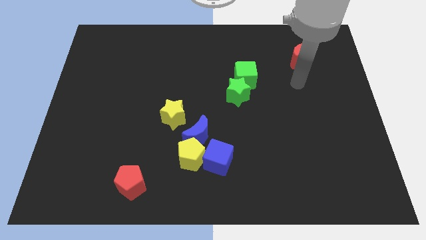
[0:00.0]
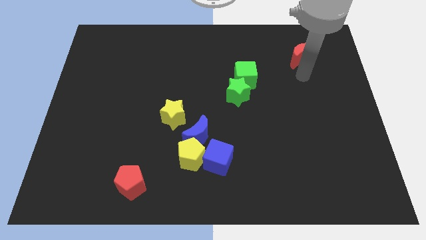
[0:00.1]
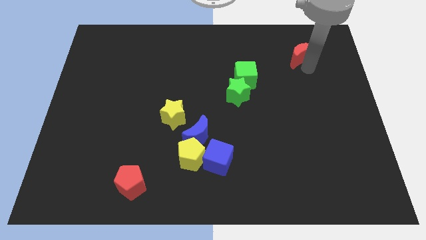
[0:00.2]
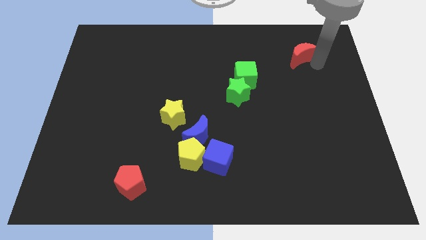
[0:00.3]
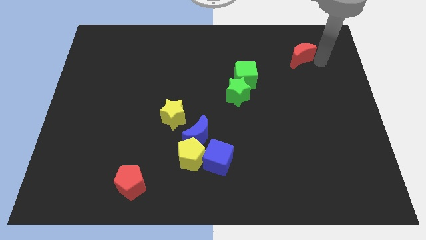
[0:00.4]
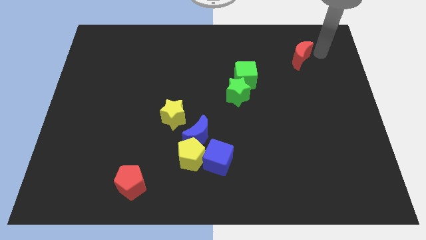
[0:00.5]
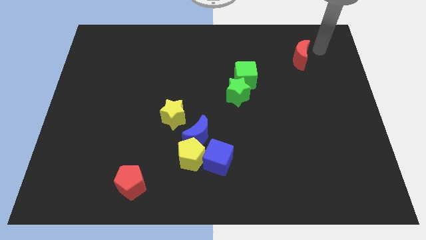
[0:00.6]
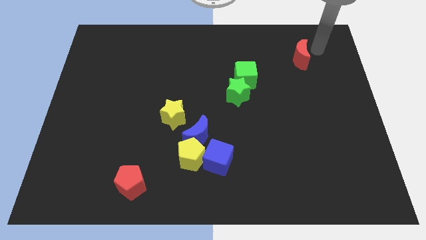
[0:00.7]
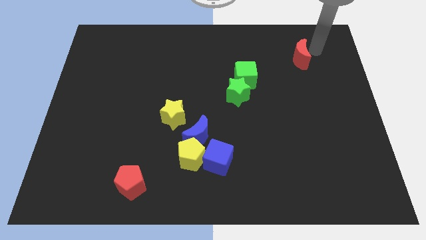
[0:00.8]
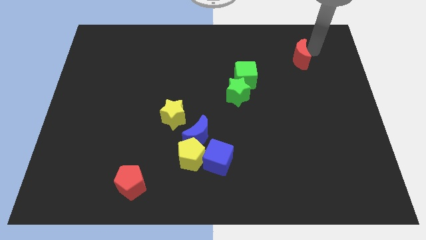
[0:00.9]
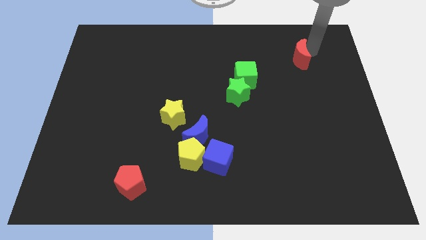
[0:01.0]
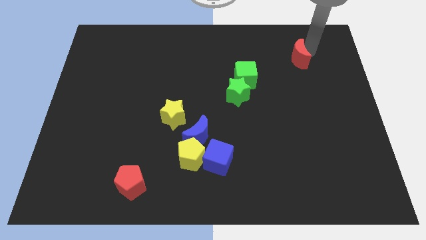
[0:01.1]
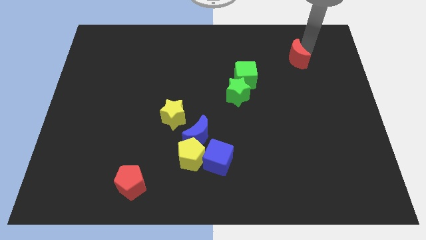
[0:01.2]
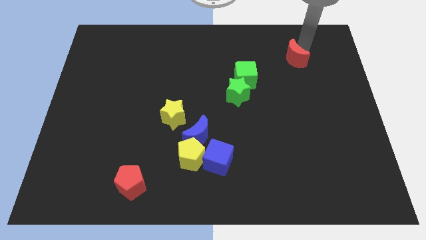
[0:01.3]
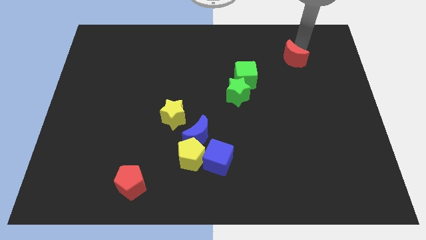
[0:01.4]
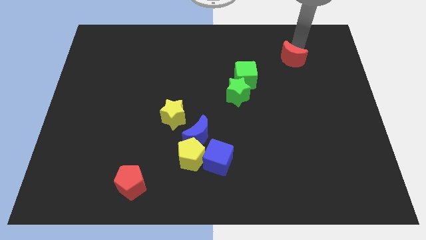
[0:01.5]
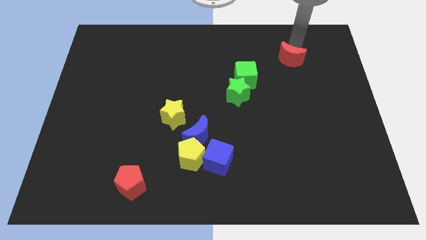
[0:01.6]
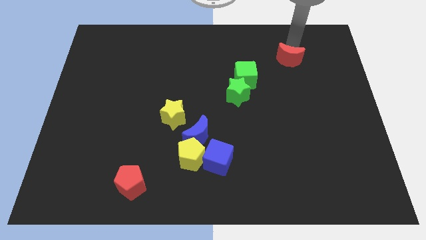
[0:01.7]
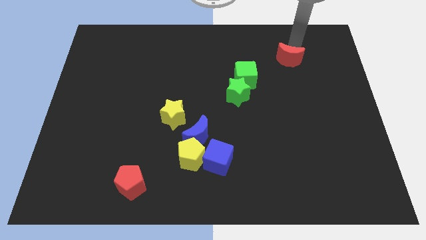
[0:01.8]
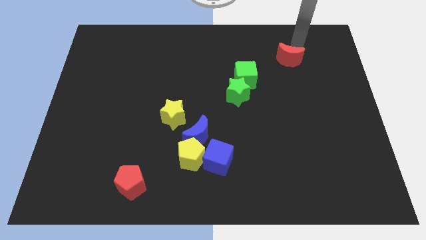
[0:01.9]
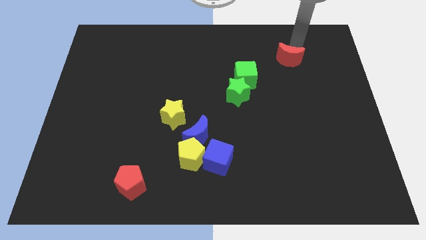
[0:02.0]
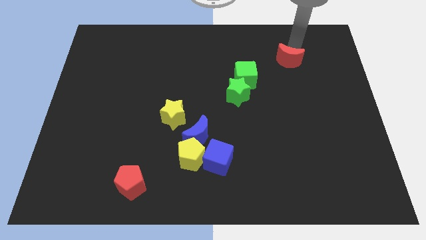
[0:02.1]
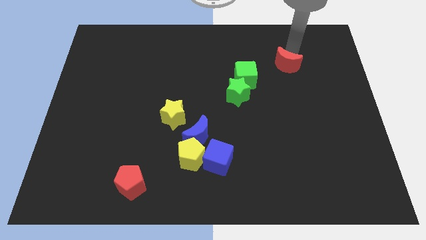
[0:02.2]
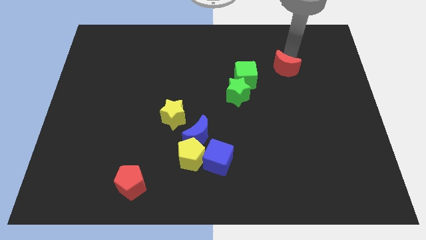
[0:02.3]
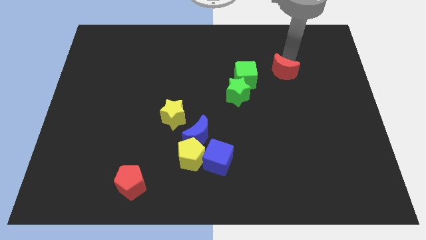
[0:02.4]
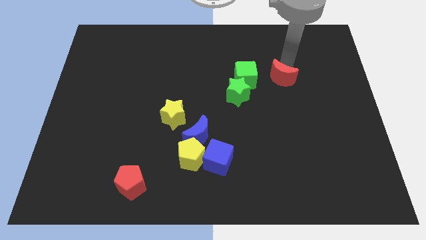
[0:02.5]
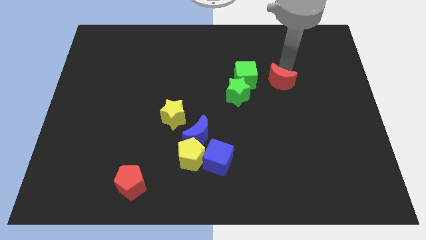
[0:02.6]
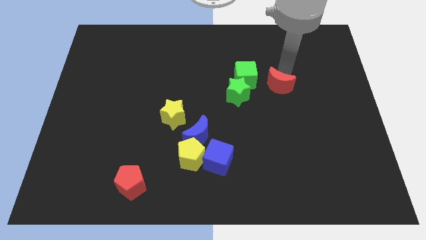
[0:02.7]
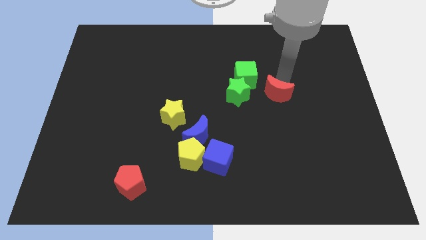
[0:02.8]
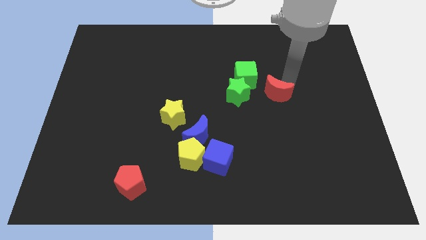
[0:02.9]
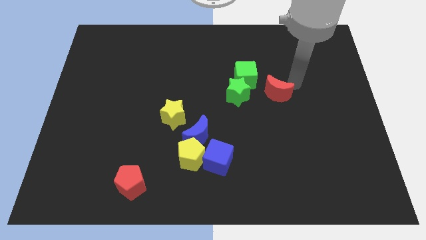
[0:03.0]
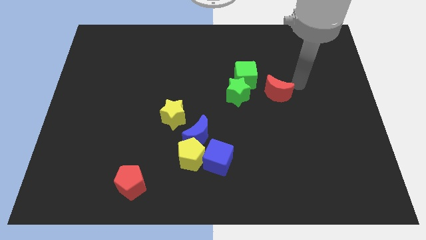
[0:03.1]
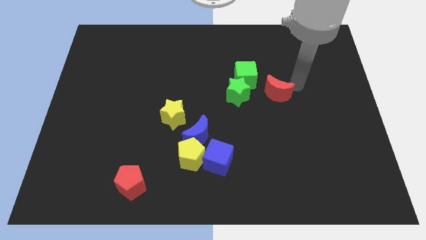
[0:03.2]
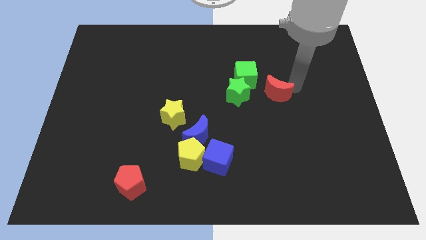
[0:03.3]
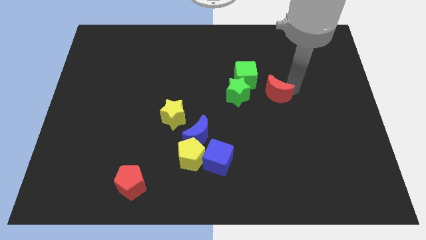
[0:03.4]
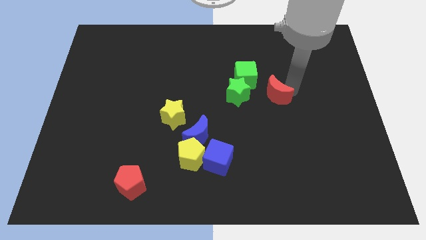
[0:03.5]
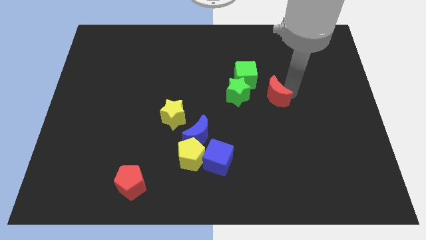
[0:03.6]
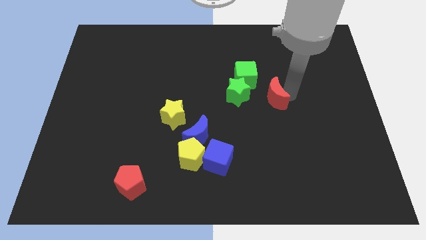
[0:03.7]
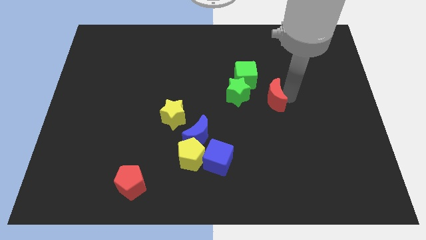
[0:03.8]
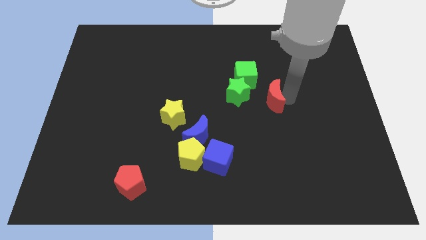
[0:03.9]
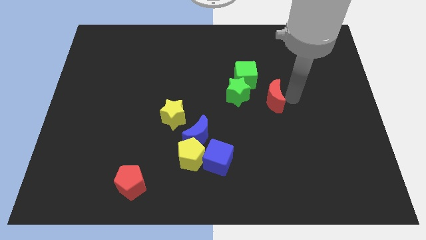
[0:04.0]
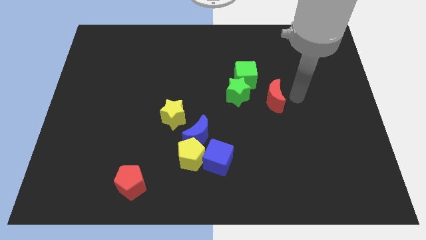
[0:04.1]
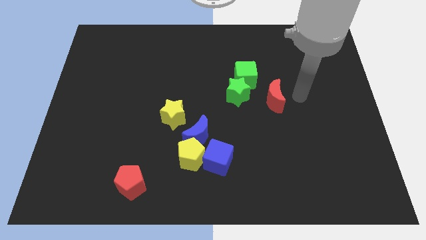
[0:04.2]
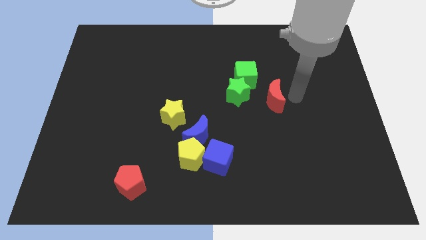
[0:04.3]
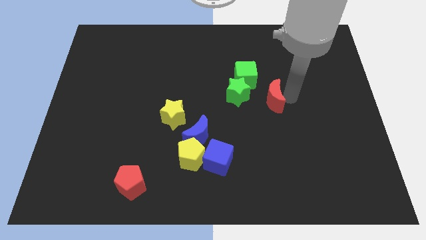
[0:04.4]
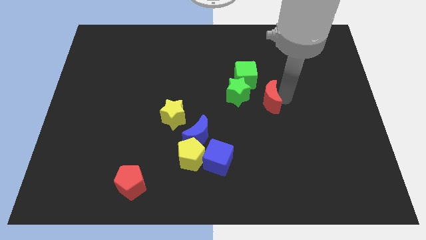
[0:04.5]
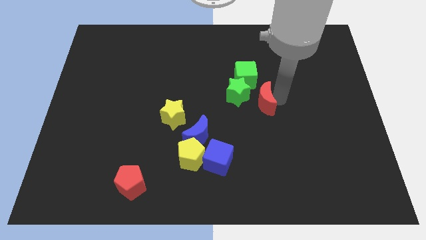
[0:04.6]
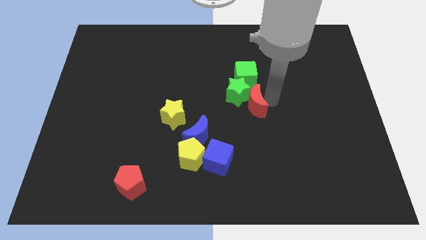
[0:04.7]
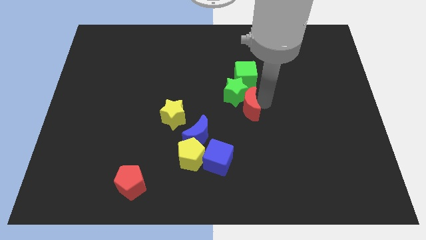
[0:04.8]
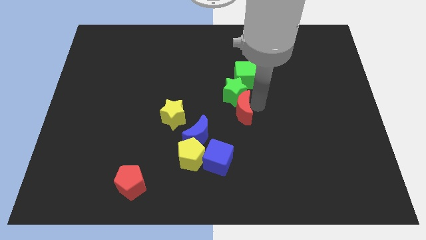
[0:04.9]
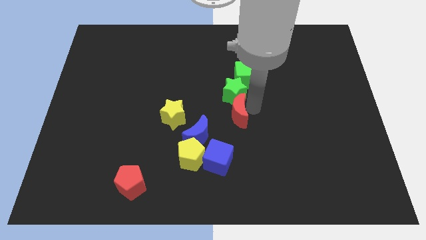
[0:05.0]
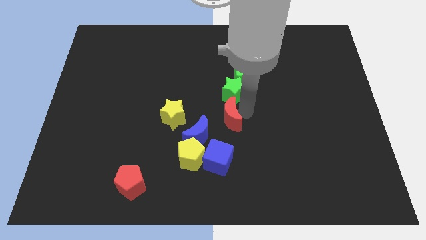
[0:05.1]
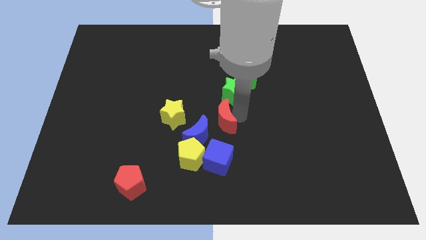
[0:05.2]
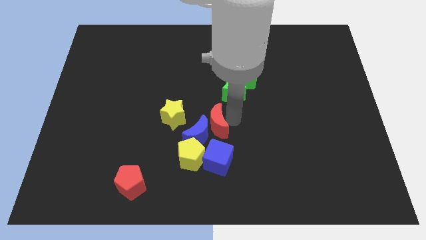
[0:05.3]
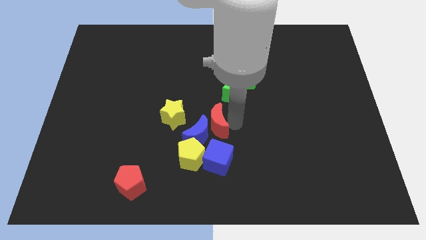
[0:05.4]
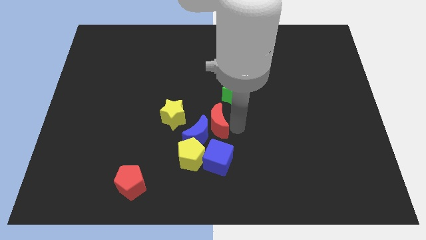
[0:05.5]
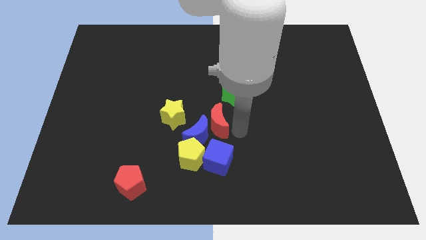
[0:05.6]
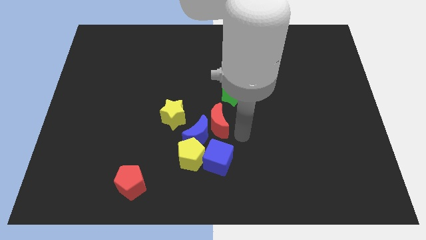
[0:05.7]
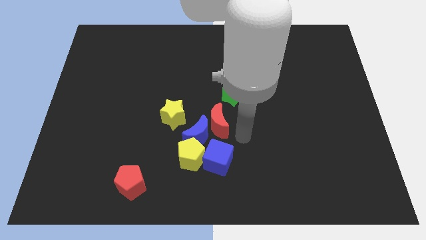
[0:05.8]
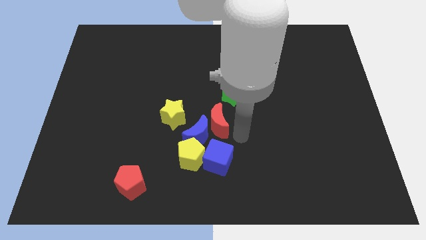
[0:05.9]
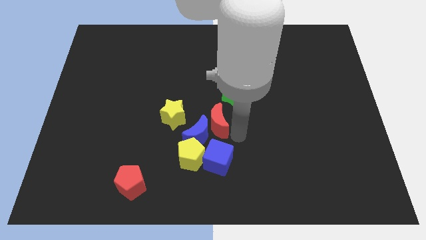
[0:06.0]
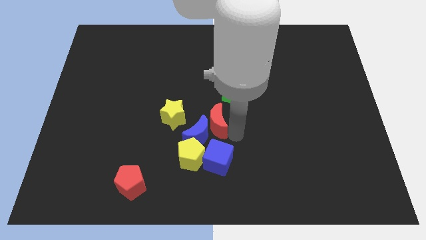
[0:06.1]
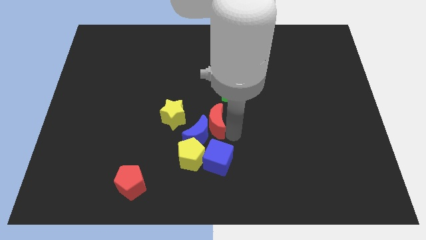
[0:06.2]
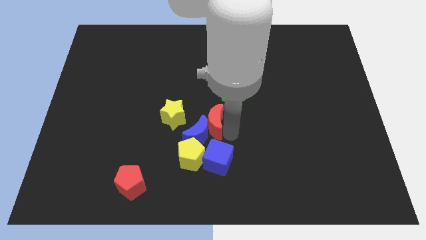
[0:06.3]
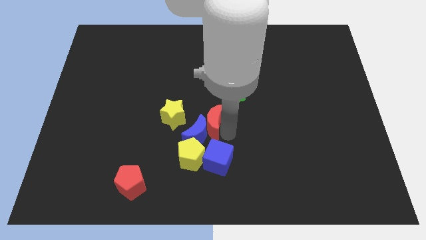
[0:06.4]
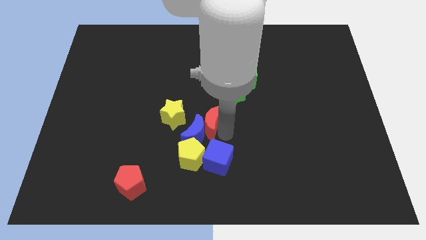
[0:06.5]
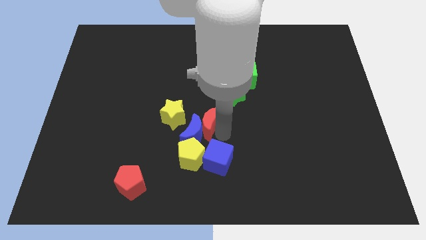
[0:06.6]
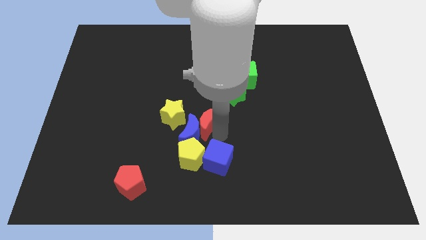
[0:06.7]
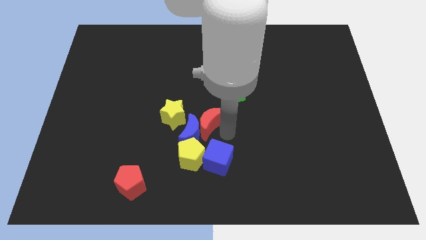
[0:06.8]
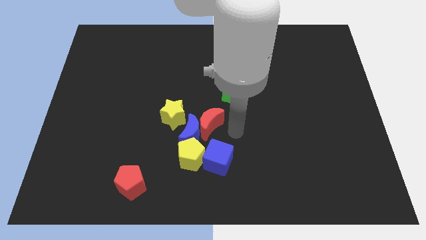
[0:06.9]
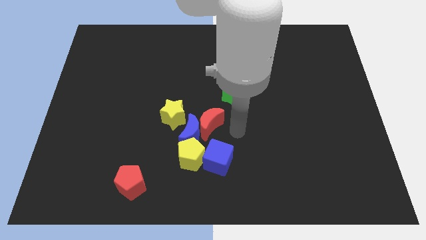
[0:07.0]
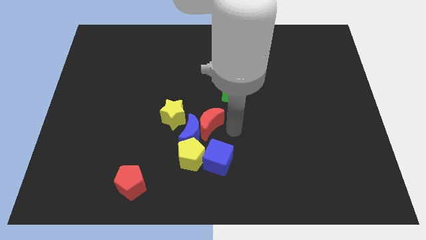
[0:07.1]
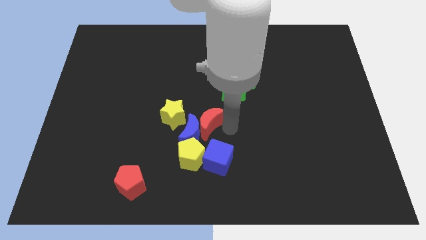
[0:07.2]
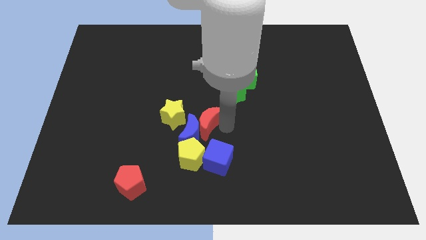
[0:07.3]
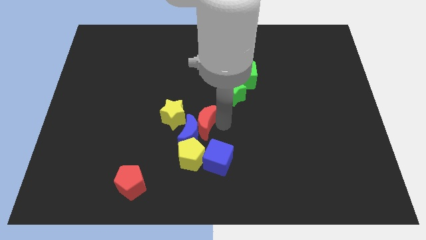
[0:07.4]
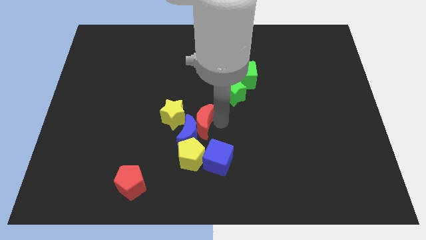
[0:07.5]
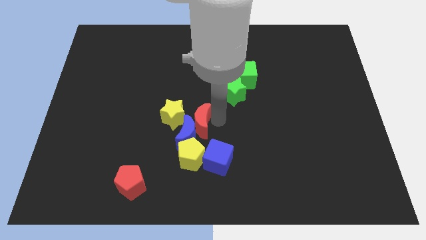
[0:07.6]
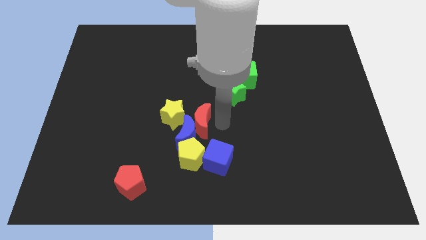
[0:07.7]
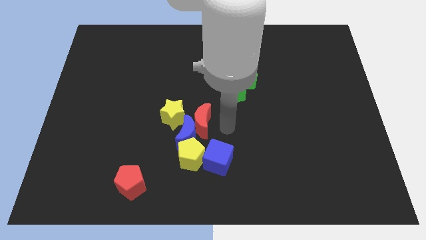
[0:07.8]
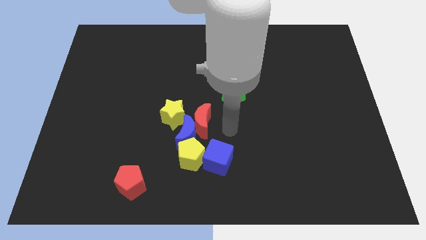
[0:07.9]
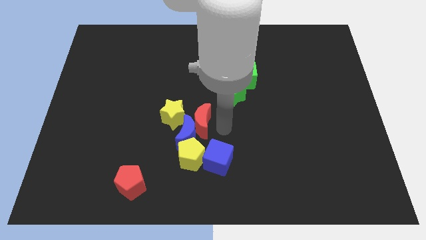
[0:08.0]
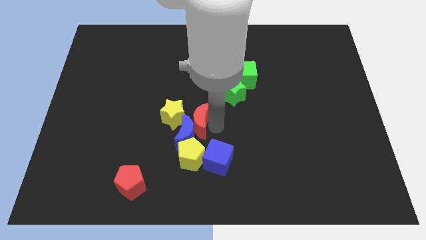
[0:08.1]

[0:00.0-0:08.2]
slide the red moon next to the yellow star
